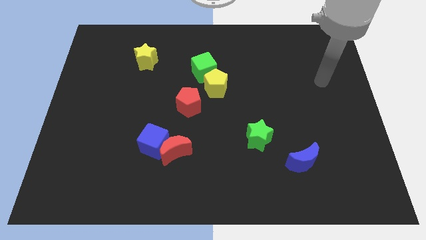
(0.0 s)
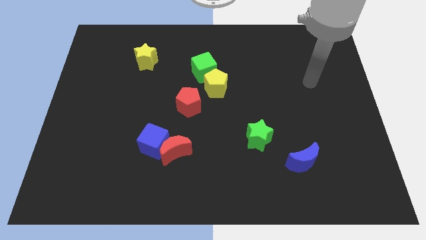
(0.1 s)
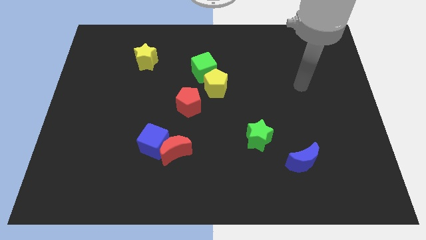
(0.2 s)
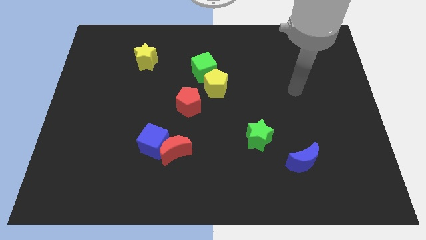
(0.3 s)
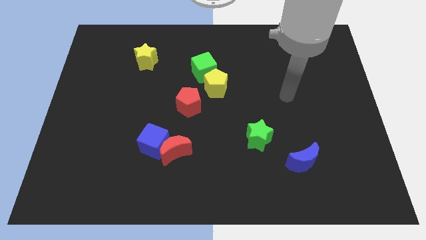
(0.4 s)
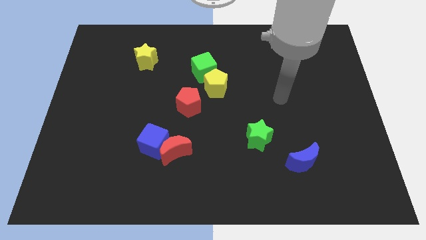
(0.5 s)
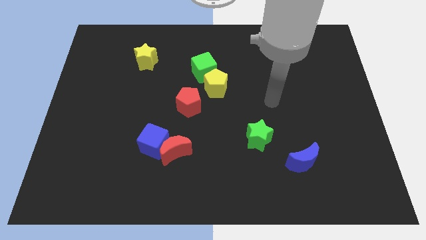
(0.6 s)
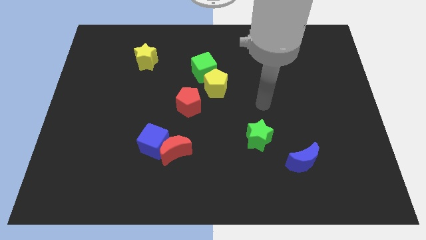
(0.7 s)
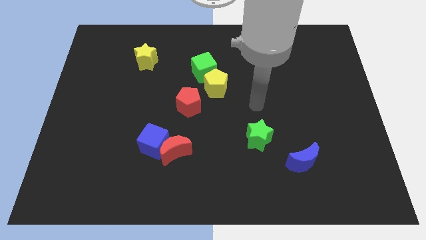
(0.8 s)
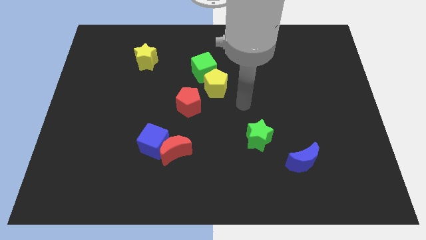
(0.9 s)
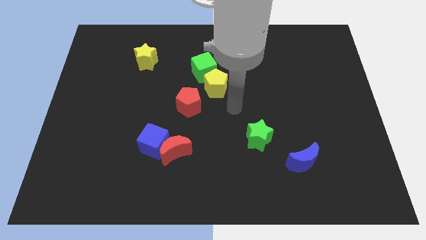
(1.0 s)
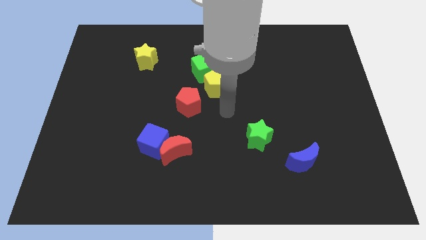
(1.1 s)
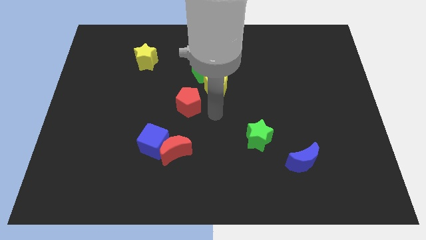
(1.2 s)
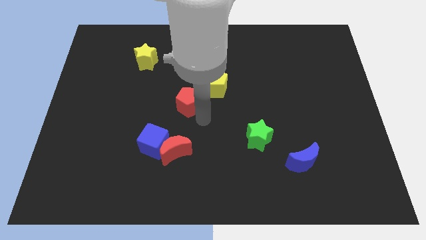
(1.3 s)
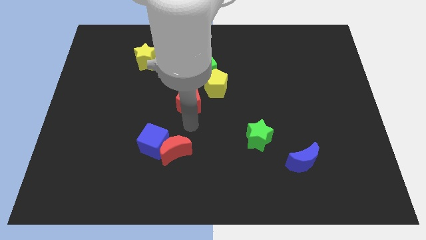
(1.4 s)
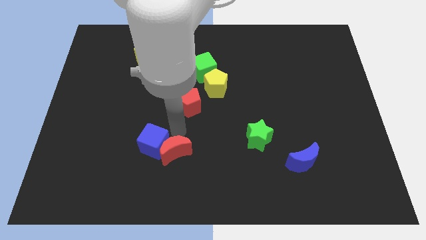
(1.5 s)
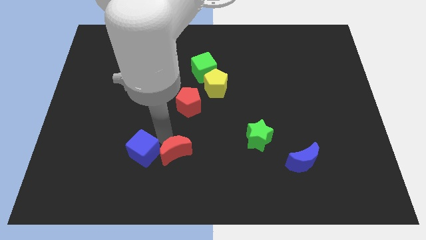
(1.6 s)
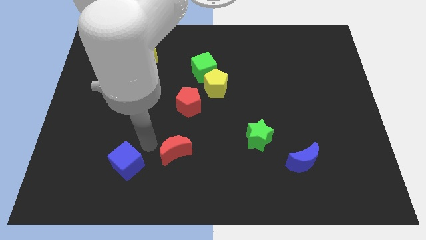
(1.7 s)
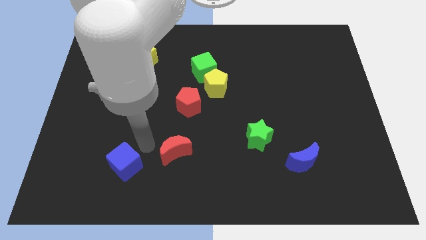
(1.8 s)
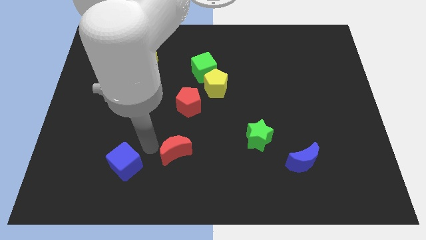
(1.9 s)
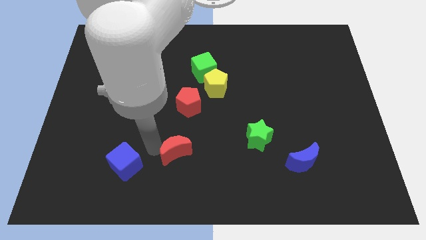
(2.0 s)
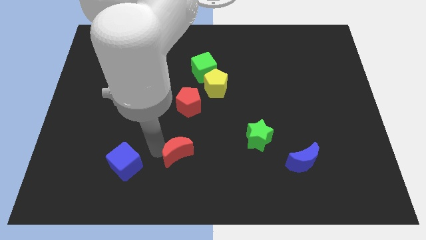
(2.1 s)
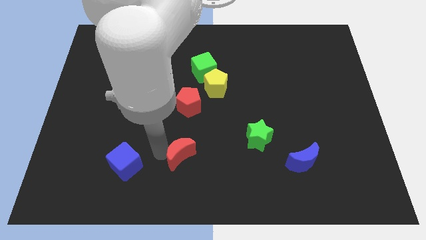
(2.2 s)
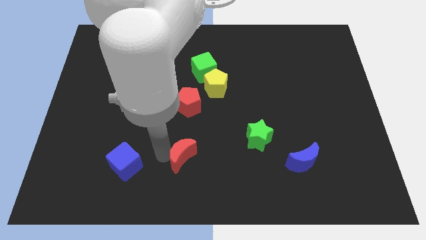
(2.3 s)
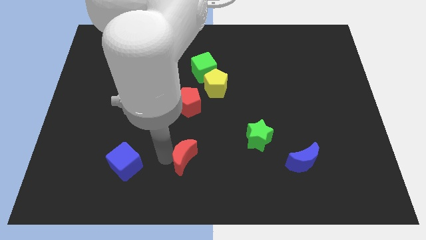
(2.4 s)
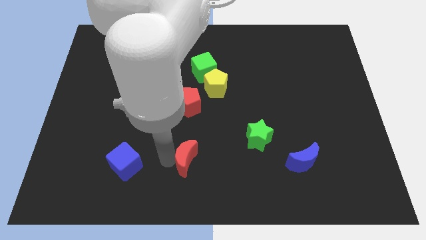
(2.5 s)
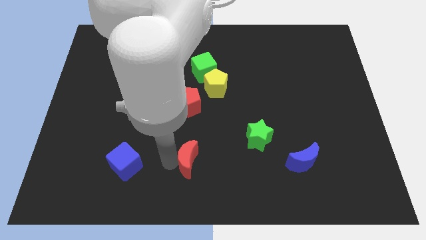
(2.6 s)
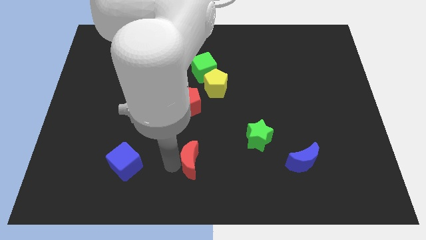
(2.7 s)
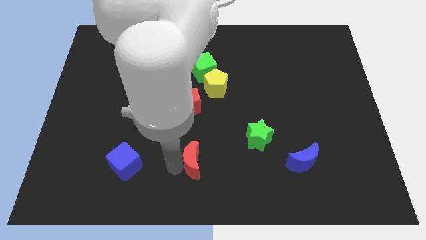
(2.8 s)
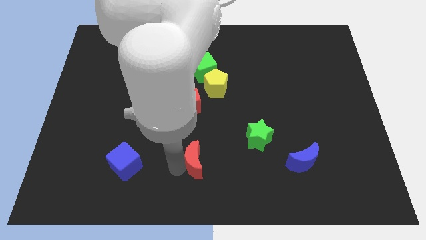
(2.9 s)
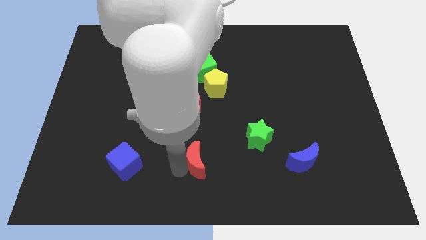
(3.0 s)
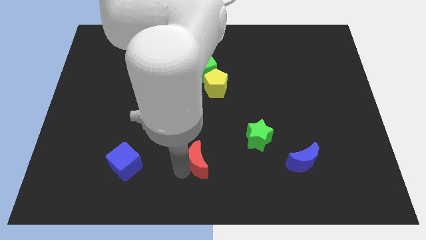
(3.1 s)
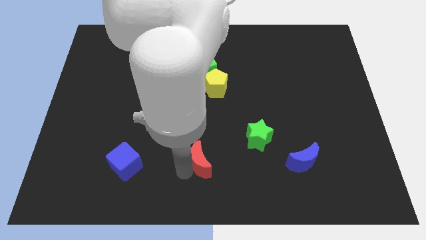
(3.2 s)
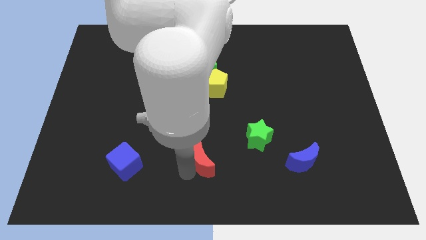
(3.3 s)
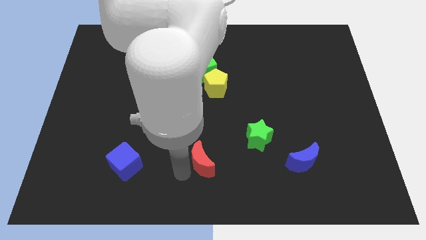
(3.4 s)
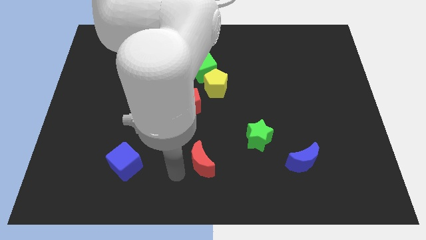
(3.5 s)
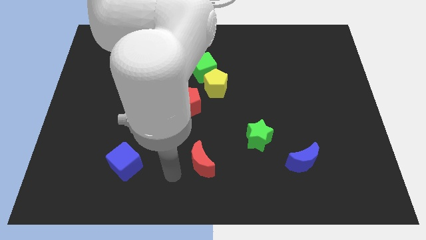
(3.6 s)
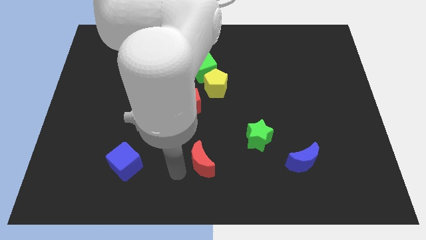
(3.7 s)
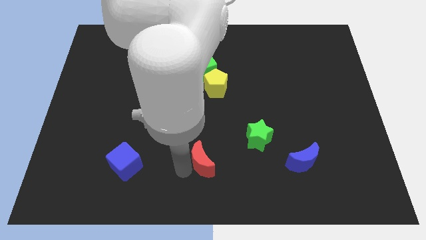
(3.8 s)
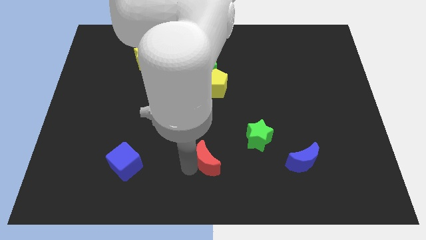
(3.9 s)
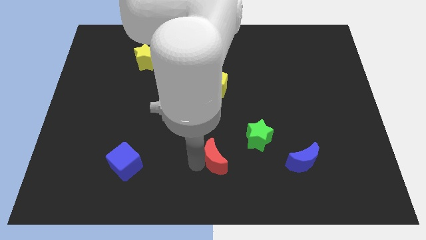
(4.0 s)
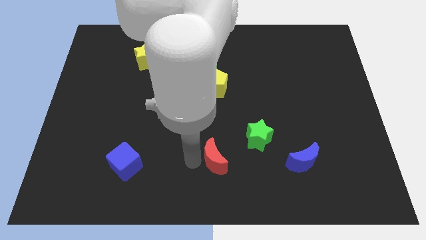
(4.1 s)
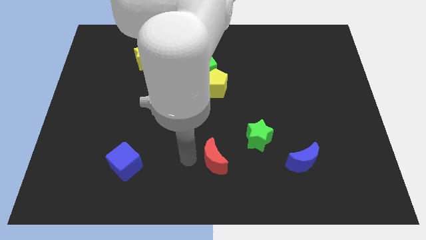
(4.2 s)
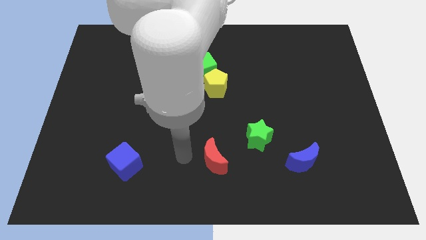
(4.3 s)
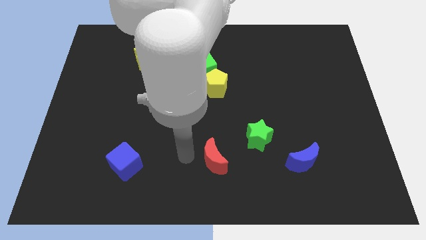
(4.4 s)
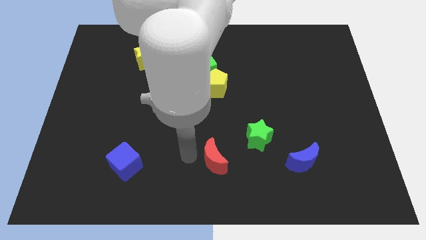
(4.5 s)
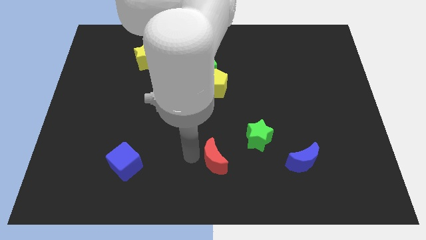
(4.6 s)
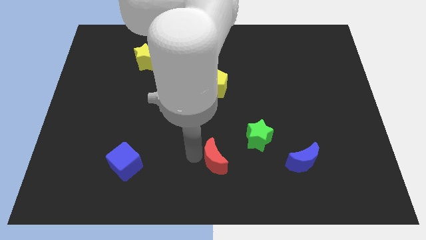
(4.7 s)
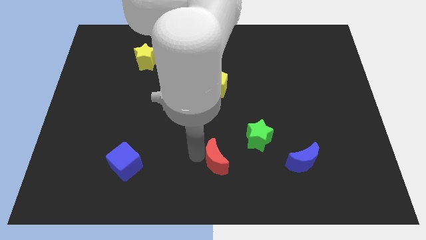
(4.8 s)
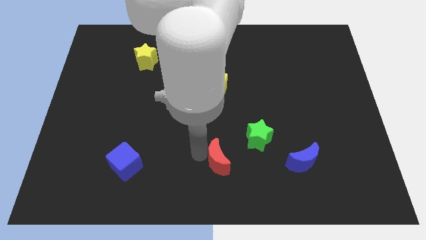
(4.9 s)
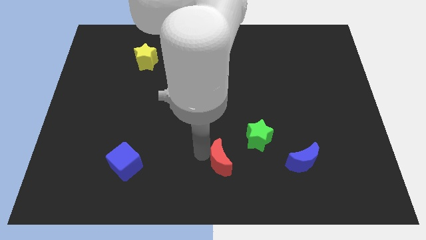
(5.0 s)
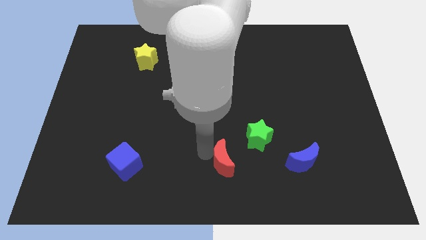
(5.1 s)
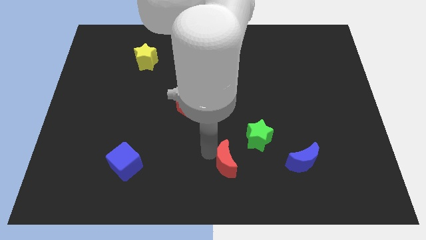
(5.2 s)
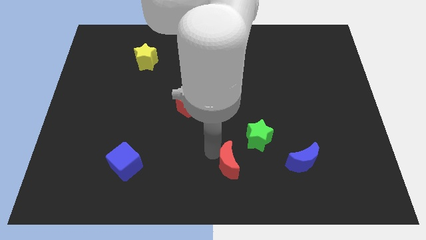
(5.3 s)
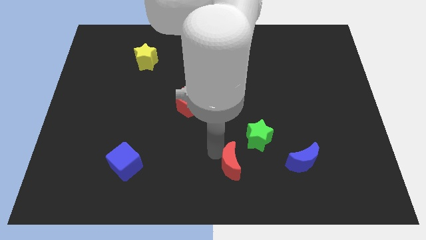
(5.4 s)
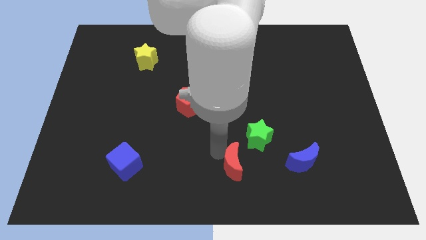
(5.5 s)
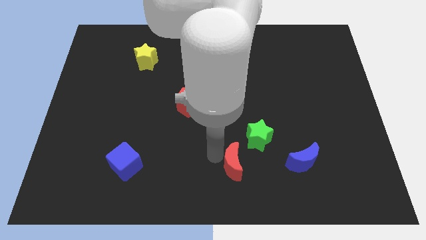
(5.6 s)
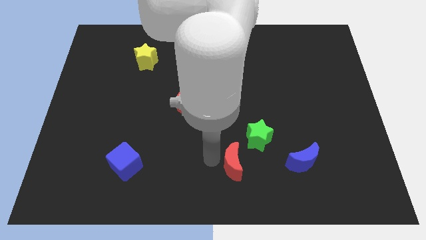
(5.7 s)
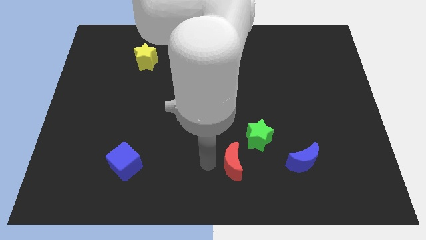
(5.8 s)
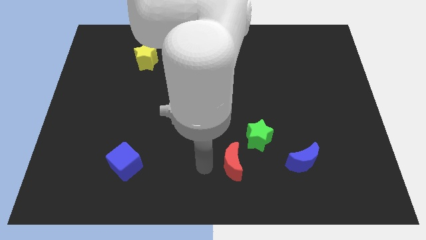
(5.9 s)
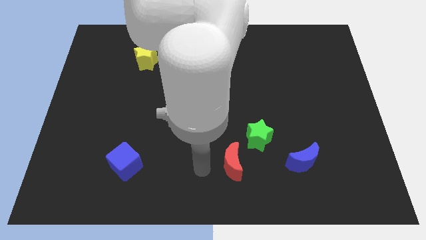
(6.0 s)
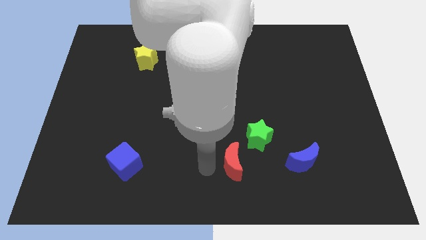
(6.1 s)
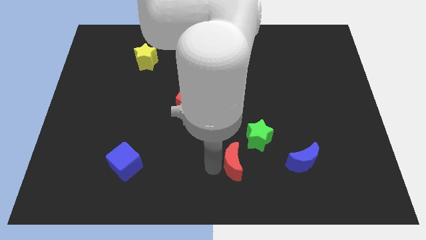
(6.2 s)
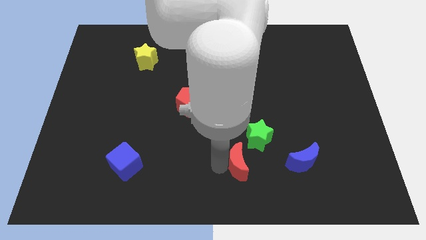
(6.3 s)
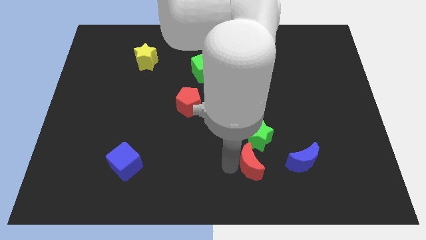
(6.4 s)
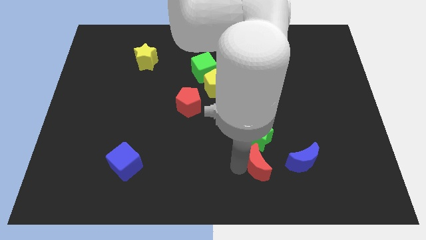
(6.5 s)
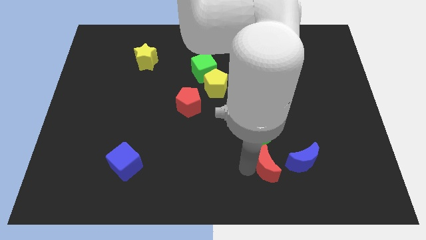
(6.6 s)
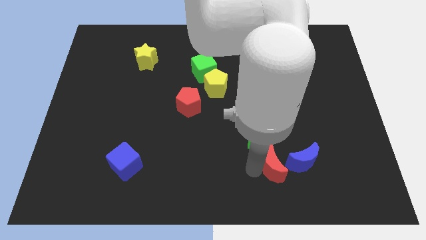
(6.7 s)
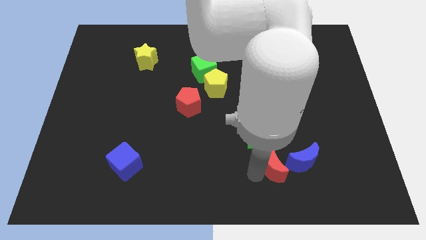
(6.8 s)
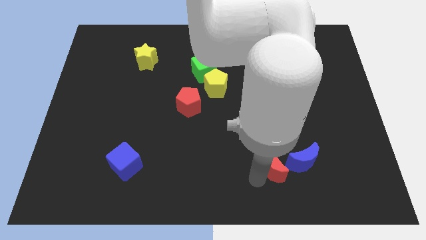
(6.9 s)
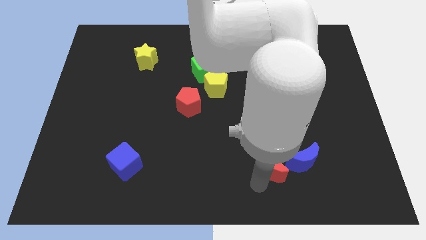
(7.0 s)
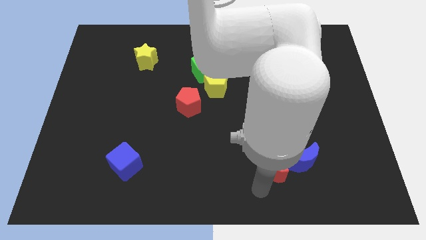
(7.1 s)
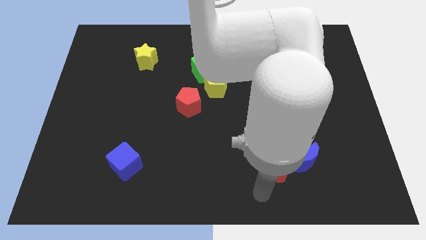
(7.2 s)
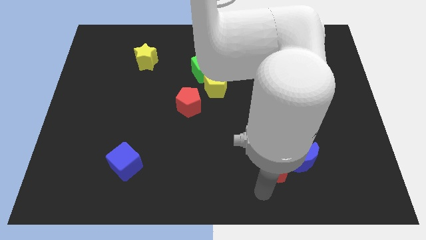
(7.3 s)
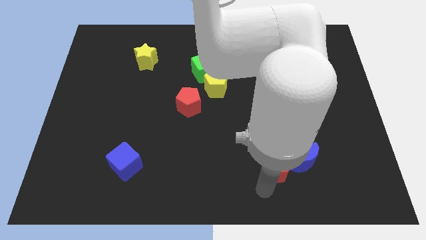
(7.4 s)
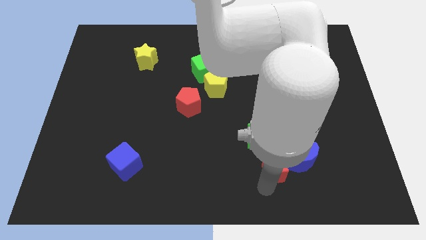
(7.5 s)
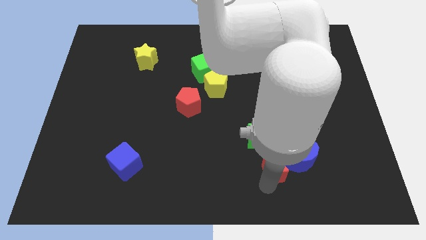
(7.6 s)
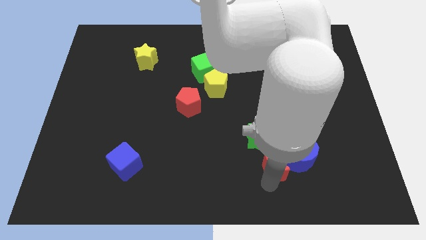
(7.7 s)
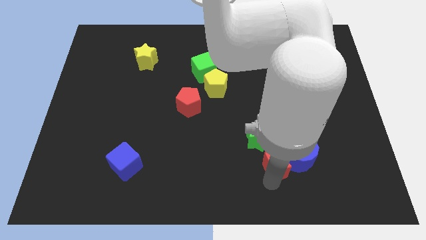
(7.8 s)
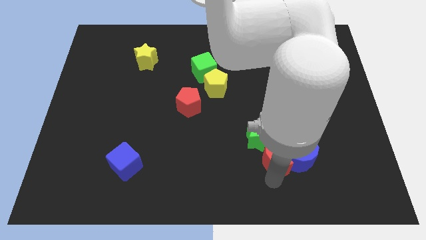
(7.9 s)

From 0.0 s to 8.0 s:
push the red moon next to the blue moon

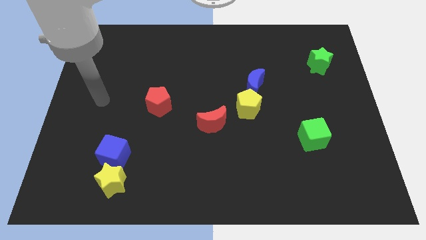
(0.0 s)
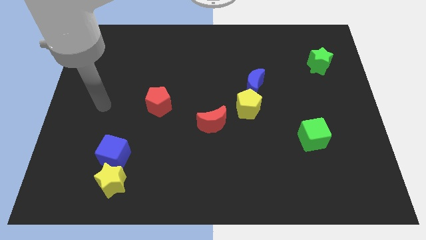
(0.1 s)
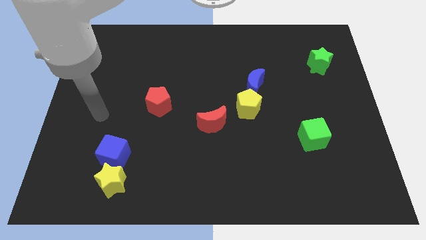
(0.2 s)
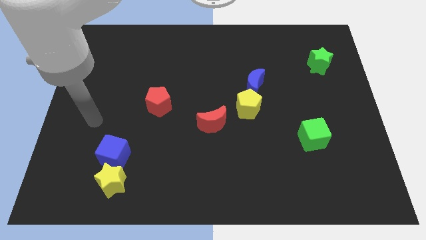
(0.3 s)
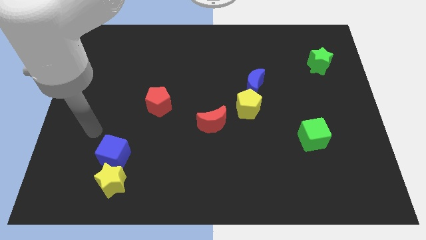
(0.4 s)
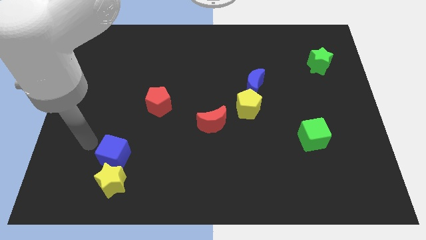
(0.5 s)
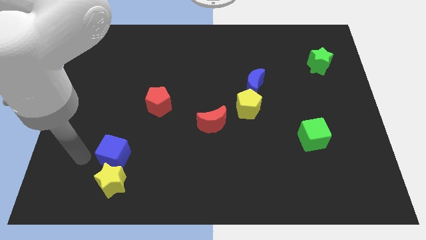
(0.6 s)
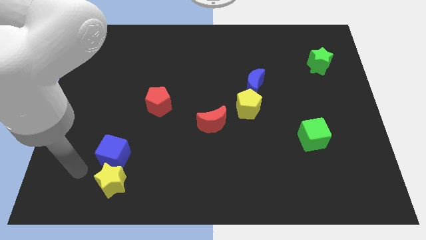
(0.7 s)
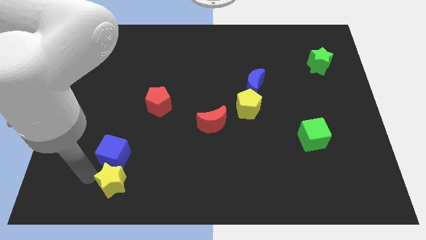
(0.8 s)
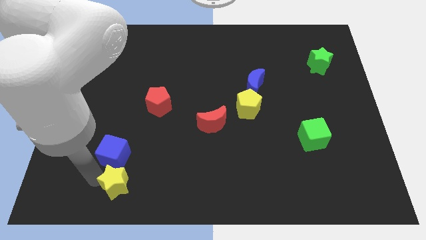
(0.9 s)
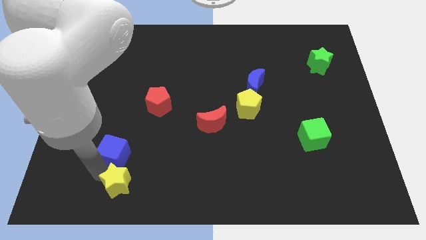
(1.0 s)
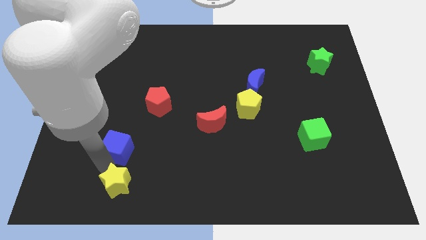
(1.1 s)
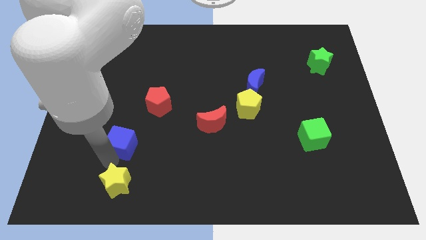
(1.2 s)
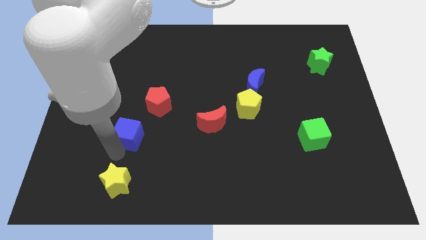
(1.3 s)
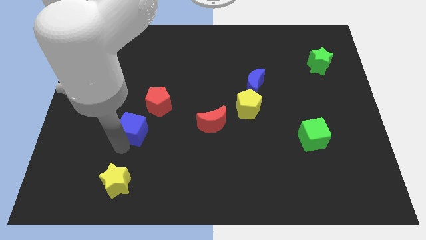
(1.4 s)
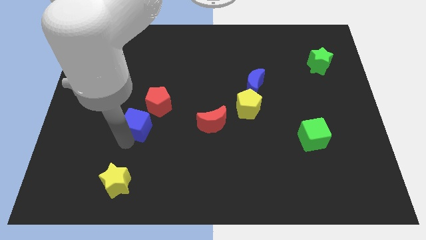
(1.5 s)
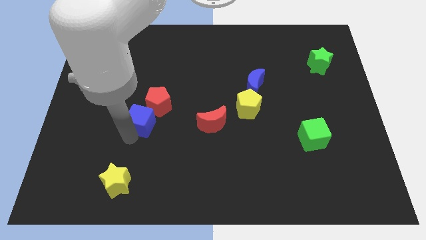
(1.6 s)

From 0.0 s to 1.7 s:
push the blue cube towards the red pentagon
